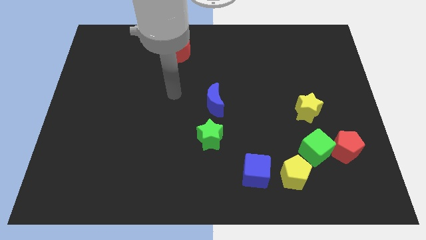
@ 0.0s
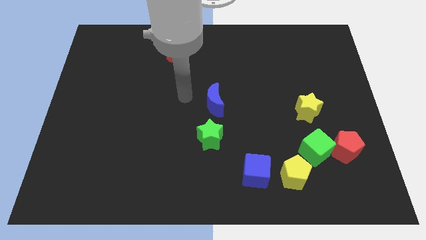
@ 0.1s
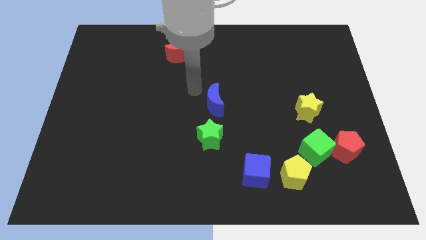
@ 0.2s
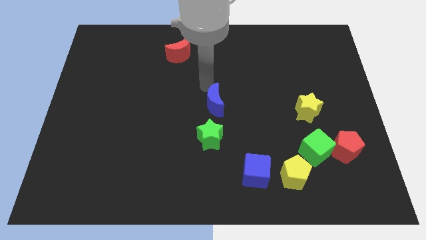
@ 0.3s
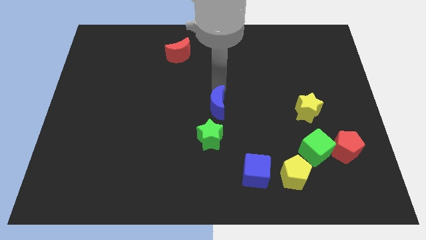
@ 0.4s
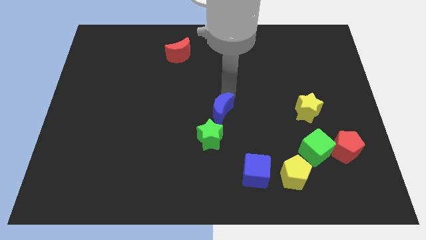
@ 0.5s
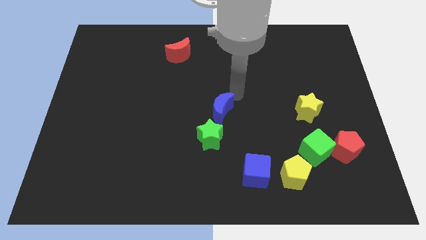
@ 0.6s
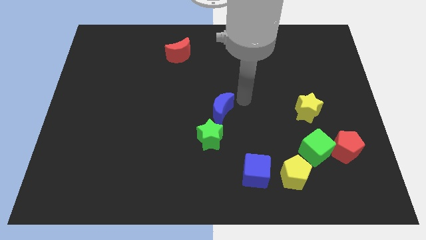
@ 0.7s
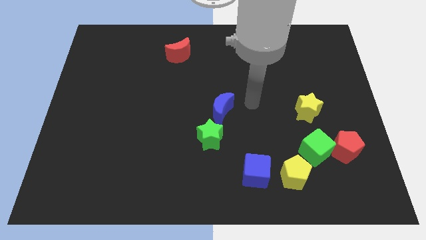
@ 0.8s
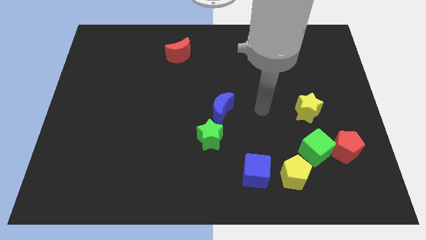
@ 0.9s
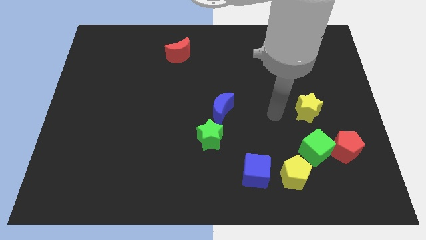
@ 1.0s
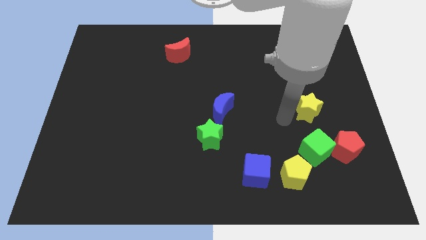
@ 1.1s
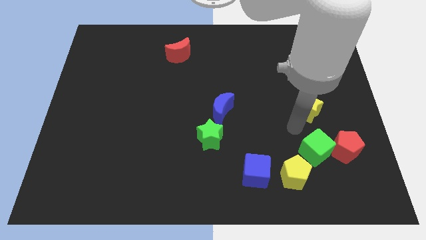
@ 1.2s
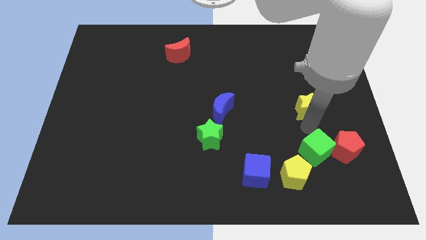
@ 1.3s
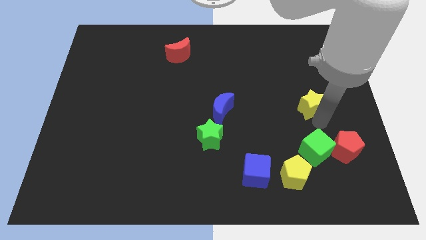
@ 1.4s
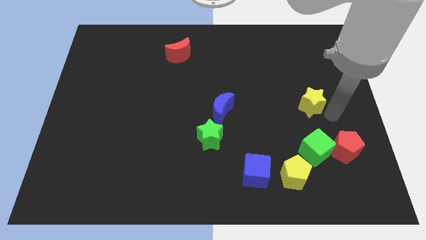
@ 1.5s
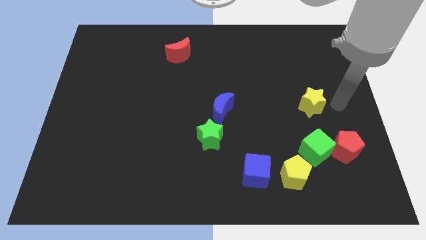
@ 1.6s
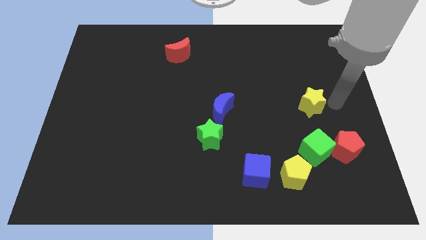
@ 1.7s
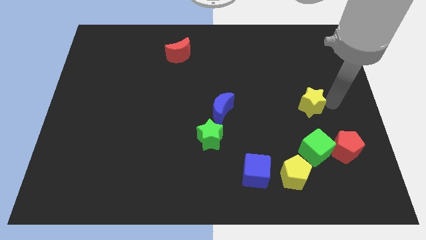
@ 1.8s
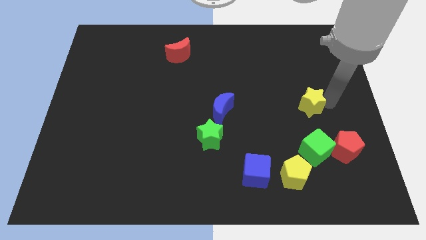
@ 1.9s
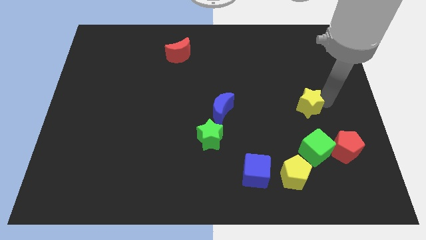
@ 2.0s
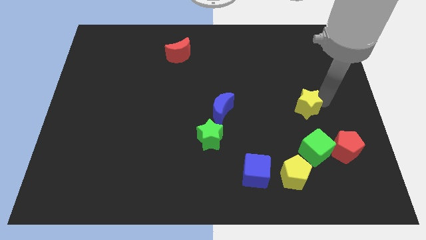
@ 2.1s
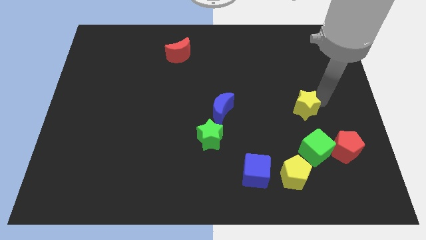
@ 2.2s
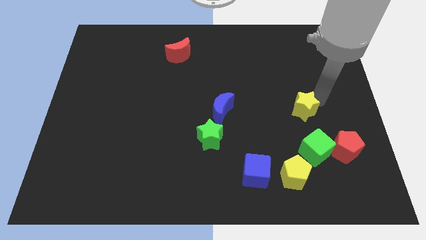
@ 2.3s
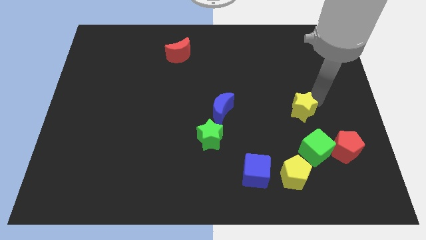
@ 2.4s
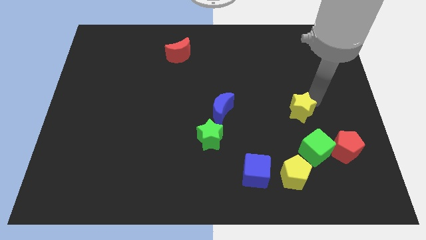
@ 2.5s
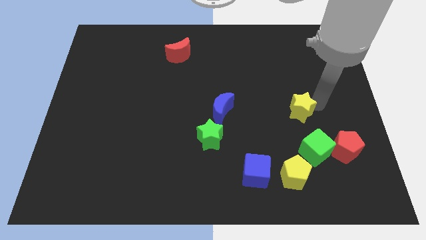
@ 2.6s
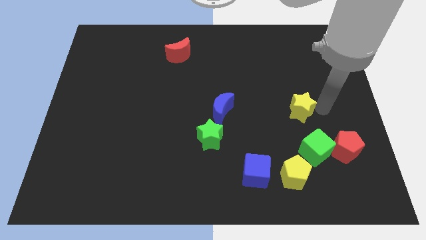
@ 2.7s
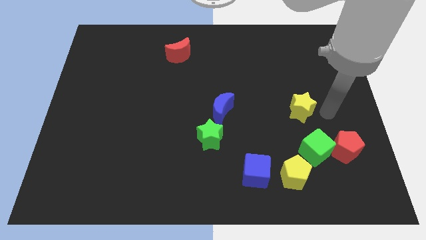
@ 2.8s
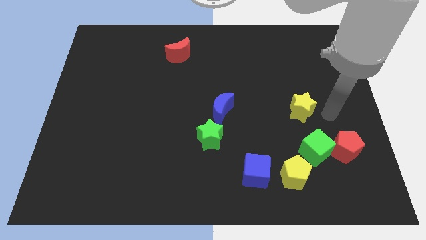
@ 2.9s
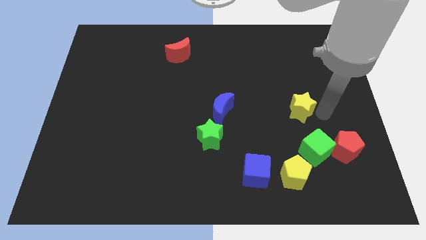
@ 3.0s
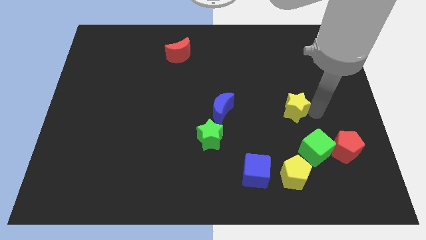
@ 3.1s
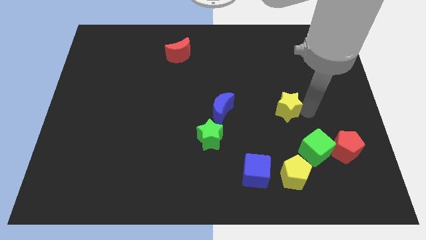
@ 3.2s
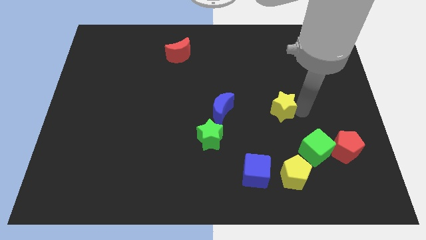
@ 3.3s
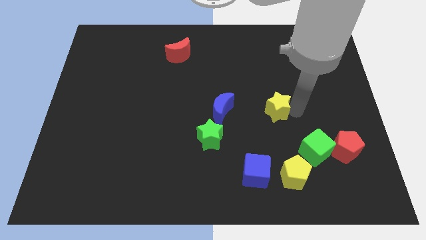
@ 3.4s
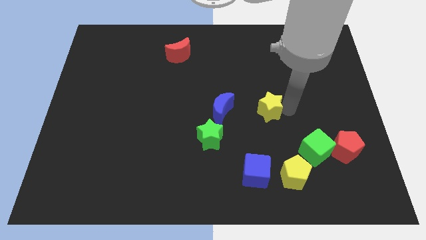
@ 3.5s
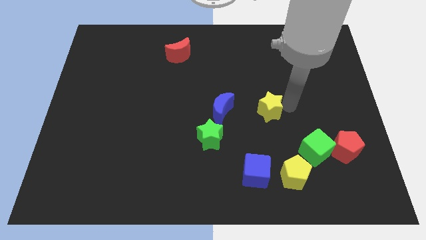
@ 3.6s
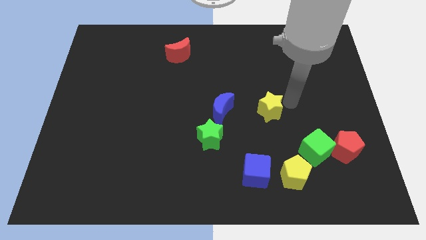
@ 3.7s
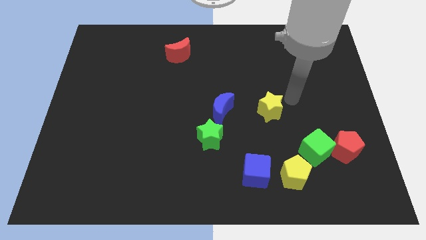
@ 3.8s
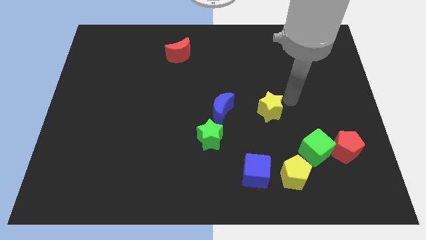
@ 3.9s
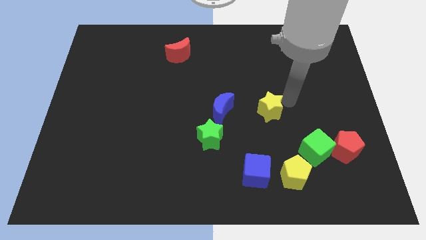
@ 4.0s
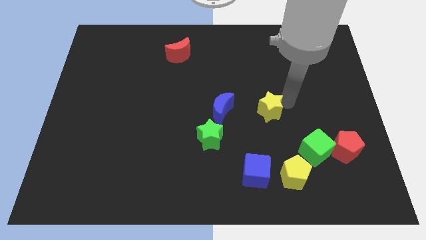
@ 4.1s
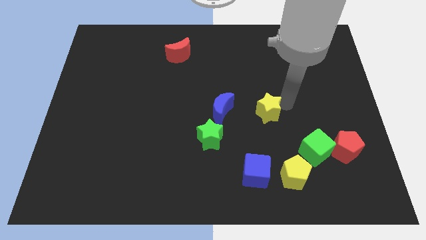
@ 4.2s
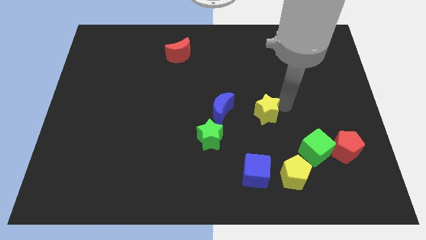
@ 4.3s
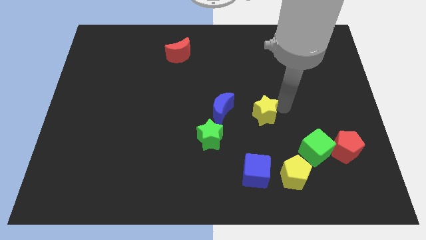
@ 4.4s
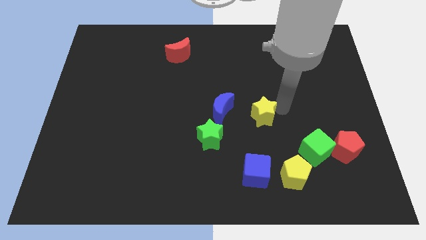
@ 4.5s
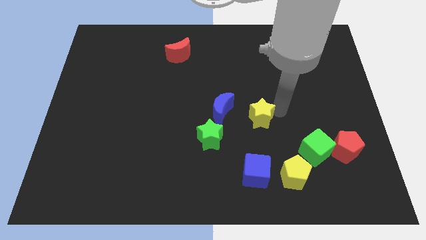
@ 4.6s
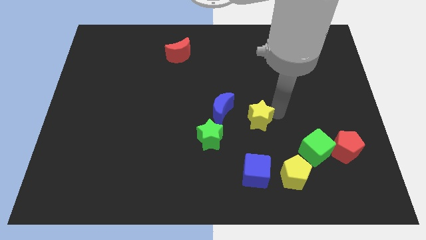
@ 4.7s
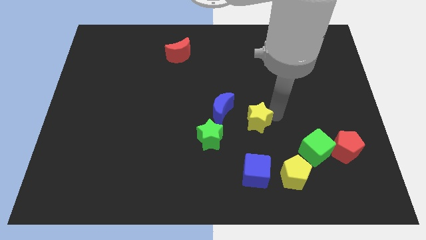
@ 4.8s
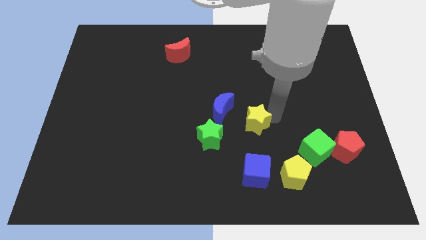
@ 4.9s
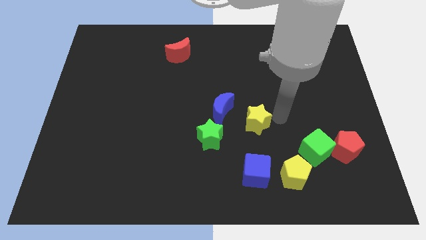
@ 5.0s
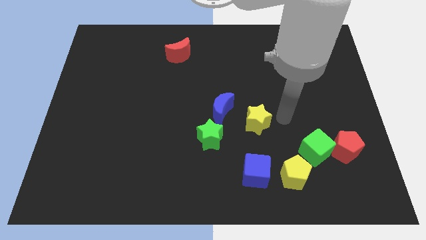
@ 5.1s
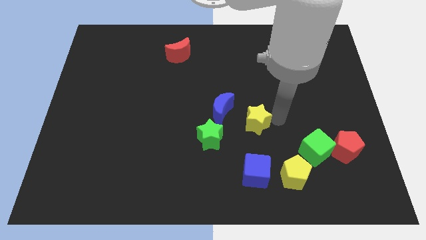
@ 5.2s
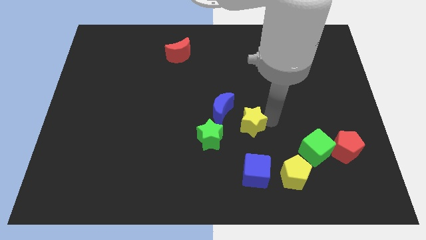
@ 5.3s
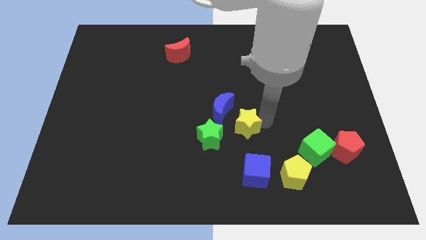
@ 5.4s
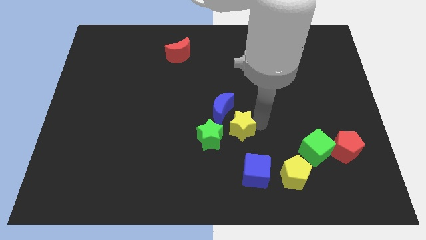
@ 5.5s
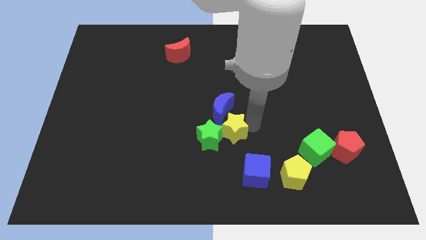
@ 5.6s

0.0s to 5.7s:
slide the yellow star towards the green star

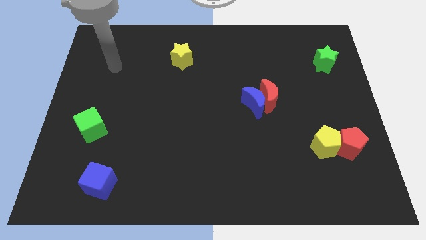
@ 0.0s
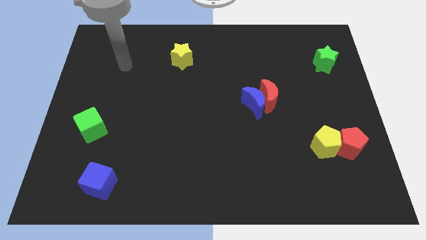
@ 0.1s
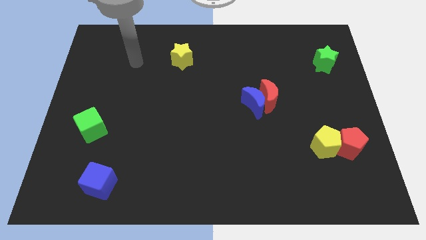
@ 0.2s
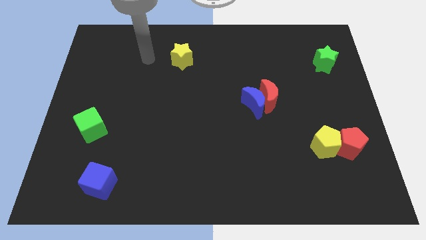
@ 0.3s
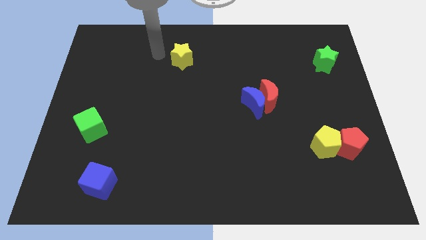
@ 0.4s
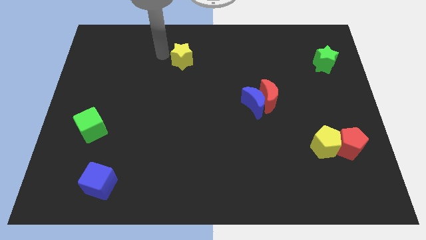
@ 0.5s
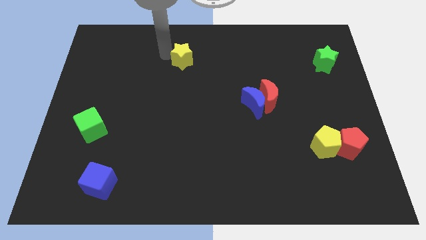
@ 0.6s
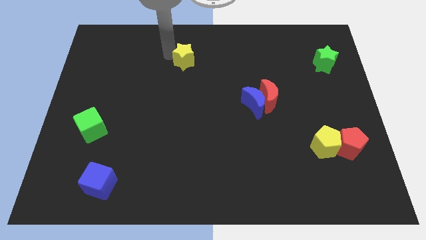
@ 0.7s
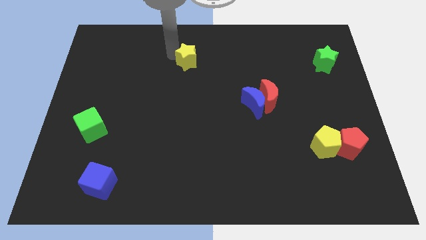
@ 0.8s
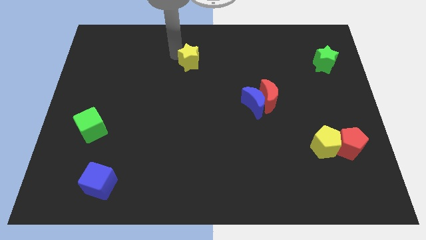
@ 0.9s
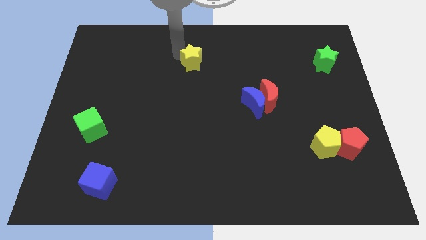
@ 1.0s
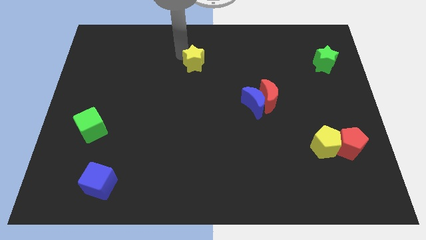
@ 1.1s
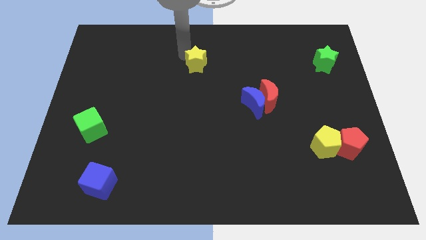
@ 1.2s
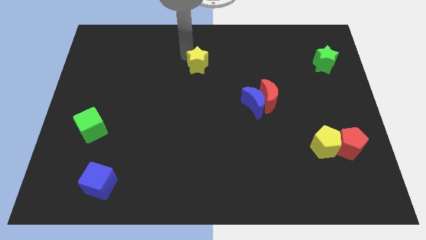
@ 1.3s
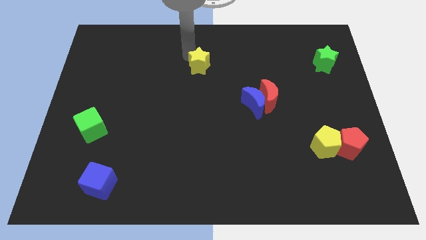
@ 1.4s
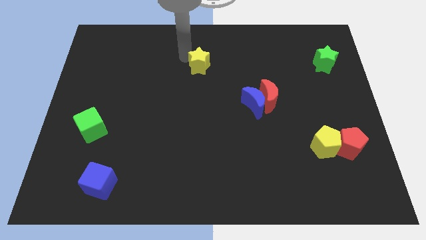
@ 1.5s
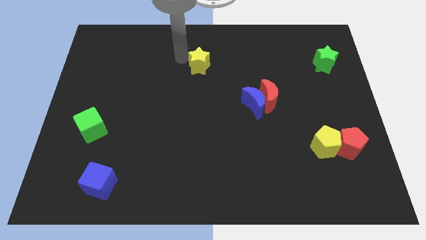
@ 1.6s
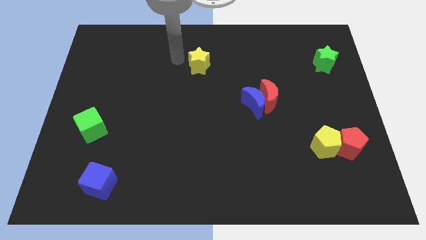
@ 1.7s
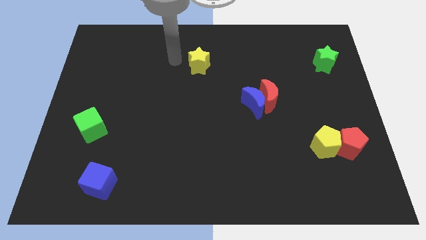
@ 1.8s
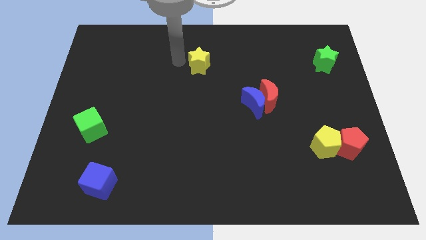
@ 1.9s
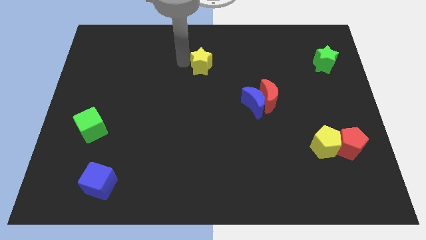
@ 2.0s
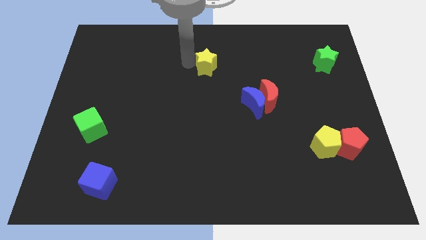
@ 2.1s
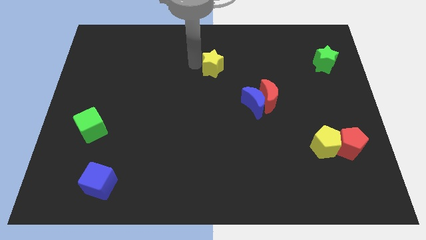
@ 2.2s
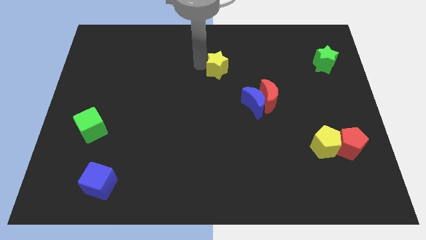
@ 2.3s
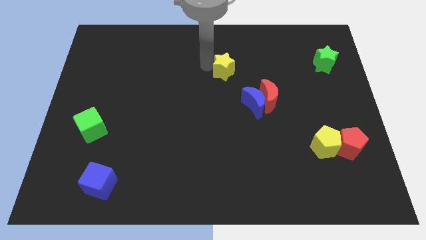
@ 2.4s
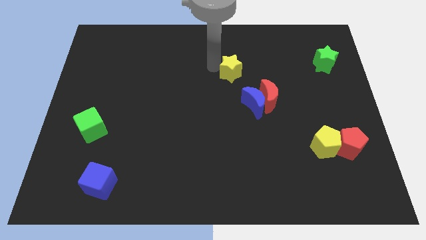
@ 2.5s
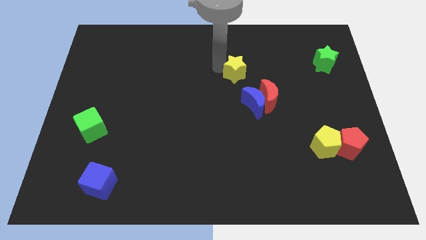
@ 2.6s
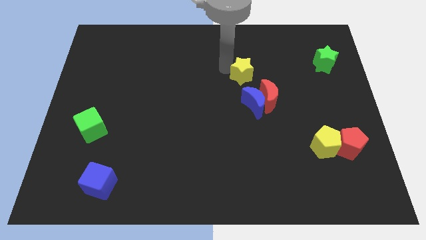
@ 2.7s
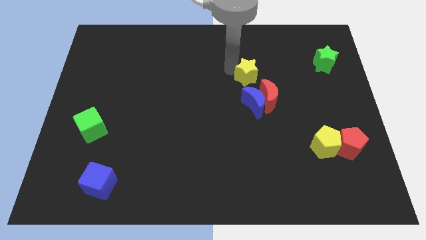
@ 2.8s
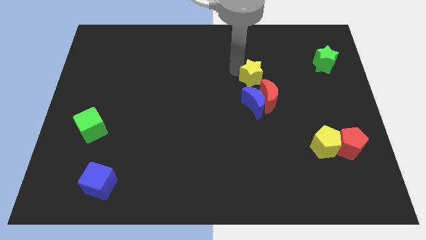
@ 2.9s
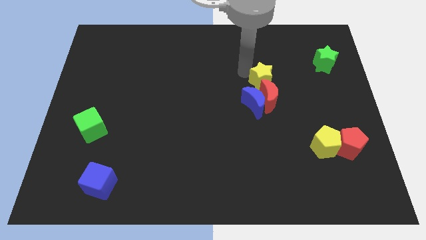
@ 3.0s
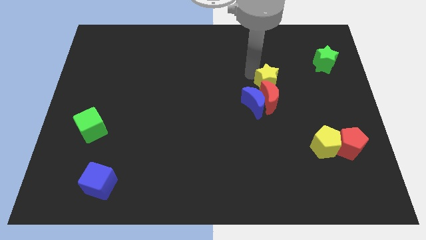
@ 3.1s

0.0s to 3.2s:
slide the yellow star next to the red moon
